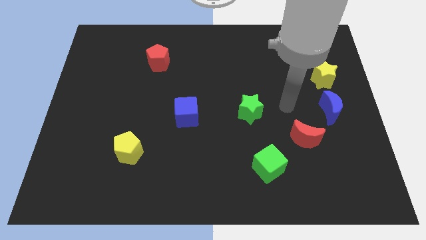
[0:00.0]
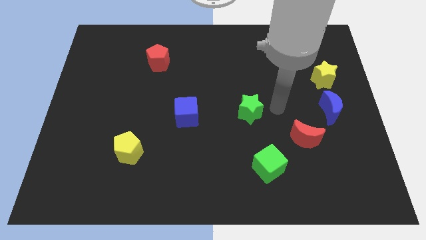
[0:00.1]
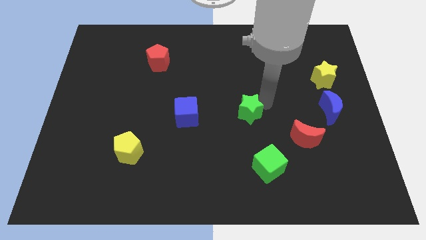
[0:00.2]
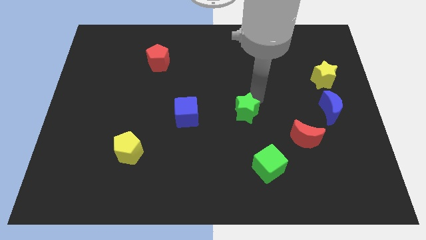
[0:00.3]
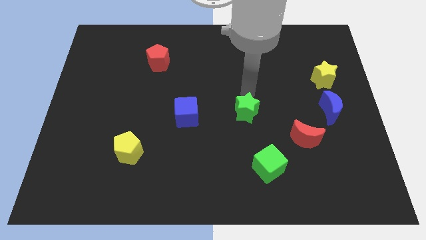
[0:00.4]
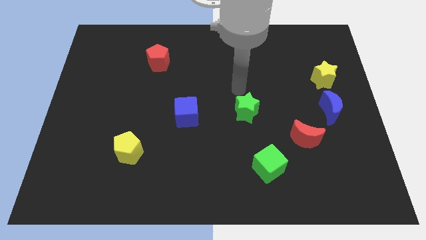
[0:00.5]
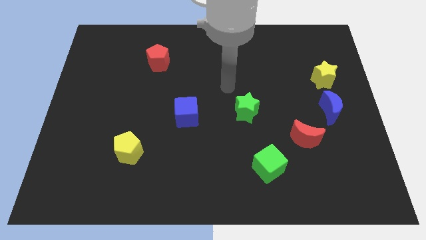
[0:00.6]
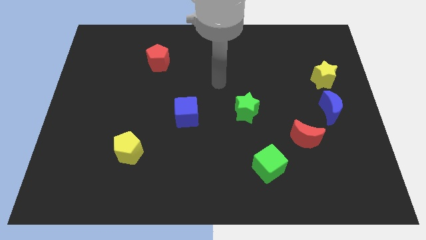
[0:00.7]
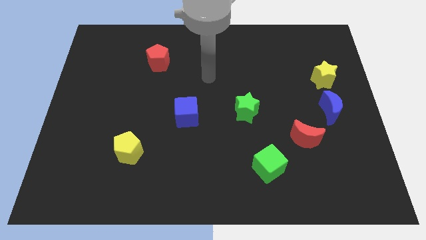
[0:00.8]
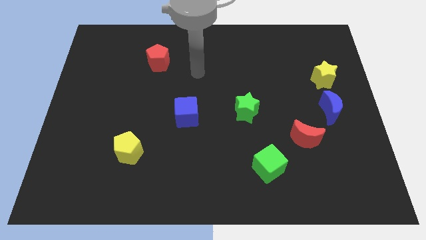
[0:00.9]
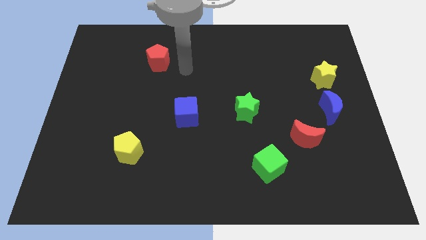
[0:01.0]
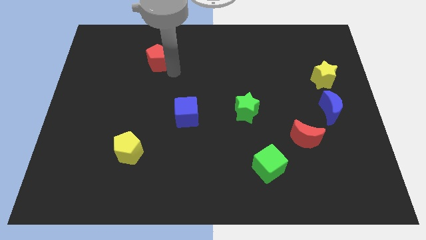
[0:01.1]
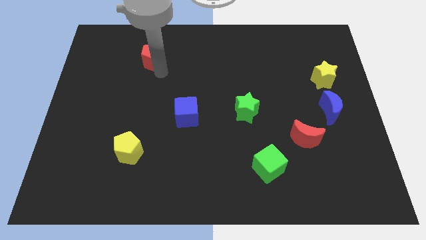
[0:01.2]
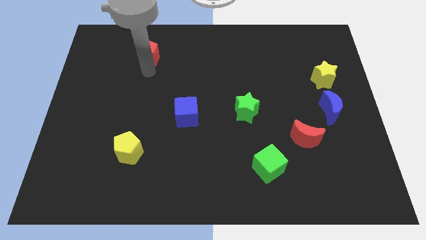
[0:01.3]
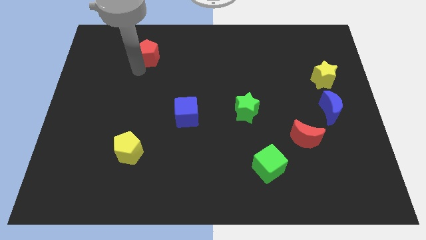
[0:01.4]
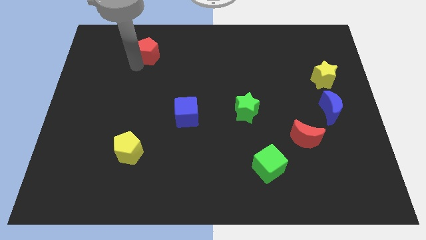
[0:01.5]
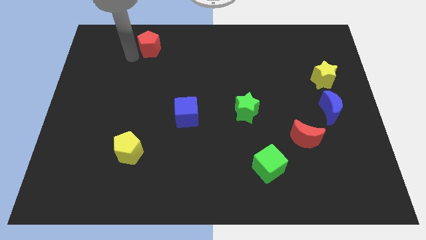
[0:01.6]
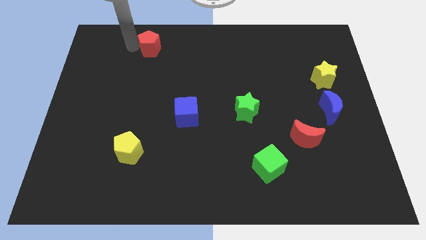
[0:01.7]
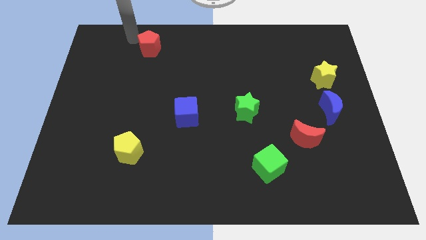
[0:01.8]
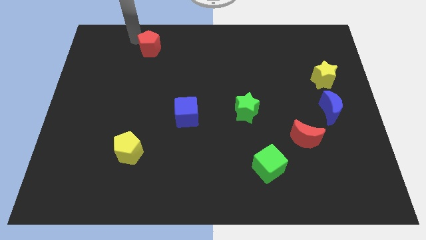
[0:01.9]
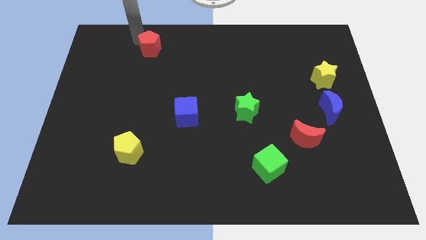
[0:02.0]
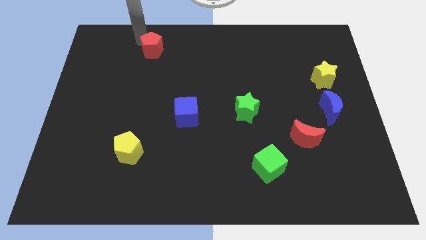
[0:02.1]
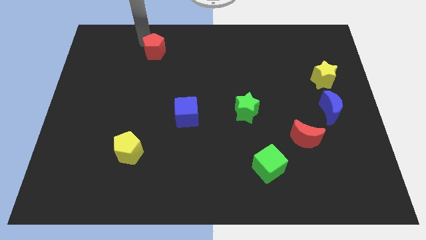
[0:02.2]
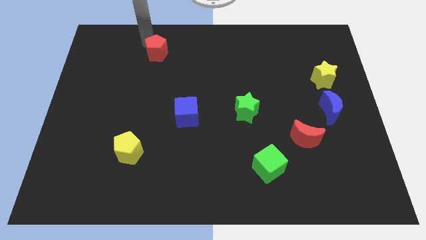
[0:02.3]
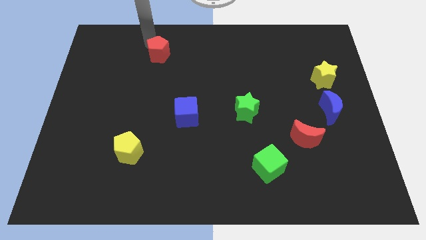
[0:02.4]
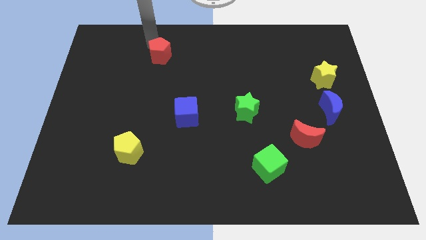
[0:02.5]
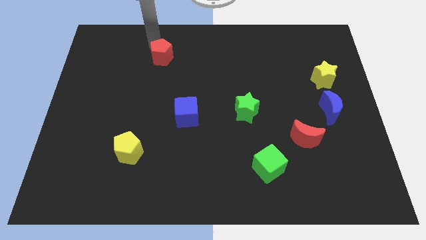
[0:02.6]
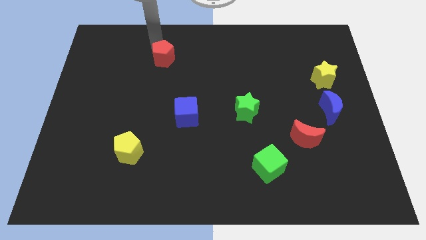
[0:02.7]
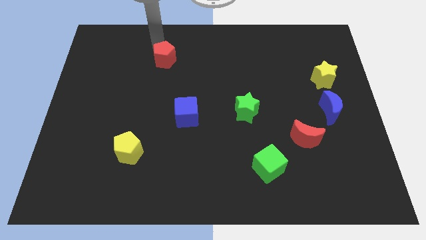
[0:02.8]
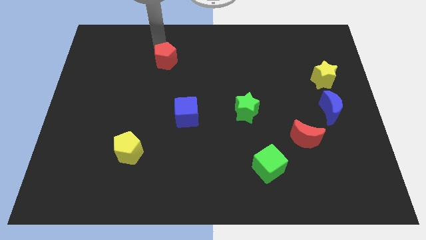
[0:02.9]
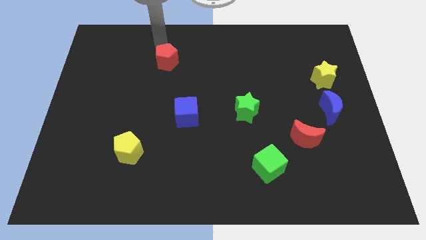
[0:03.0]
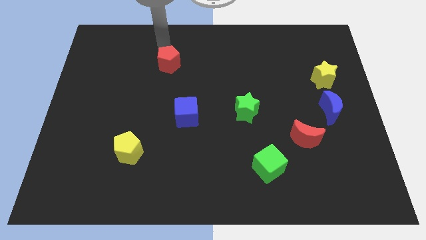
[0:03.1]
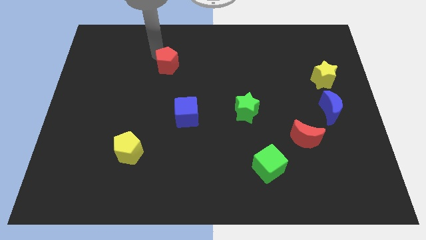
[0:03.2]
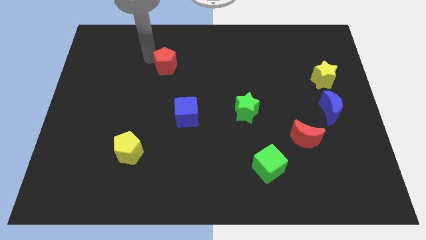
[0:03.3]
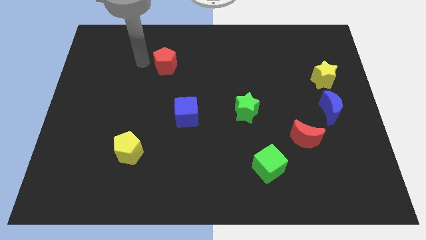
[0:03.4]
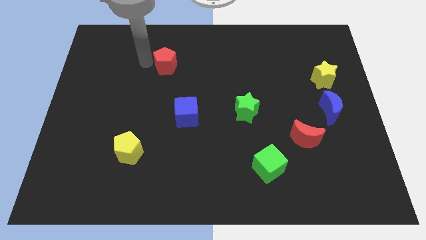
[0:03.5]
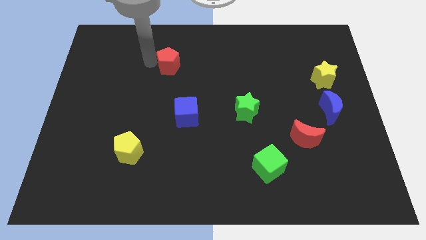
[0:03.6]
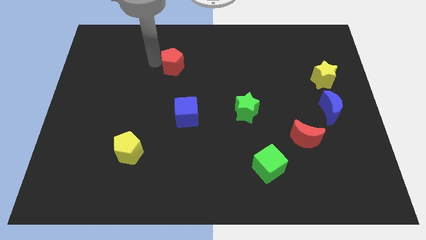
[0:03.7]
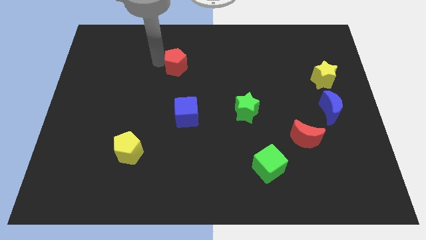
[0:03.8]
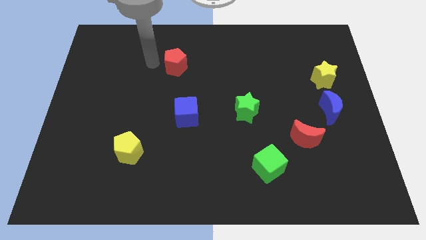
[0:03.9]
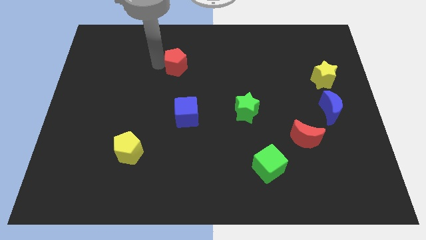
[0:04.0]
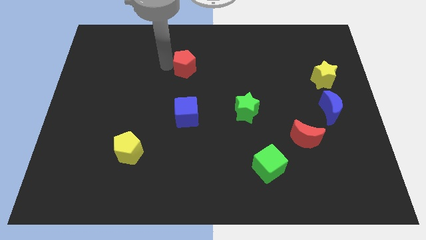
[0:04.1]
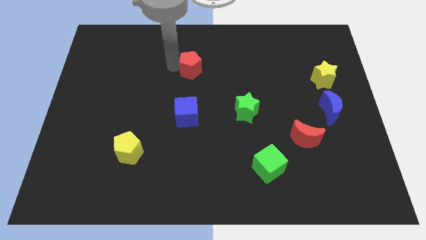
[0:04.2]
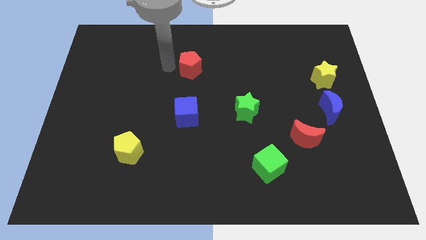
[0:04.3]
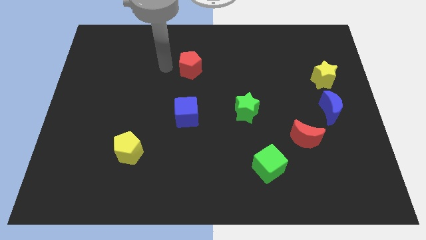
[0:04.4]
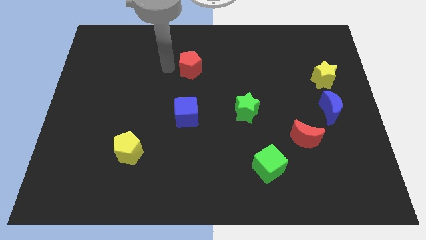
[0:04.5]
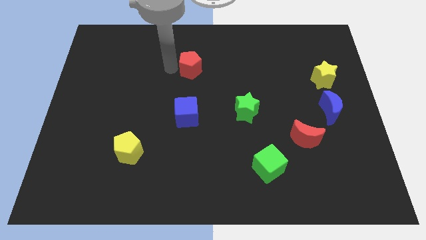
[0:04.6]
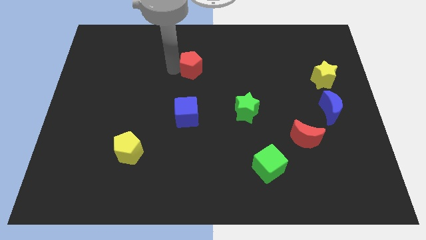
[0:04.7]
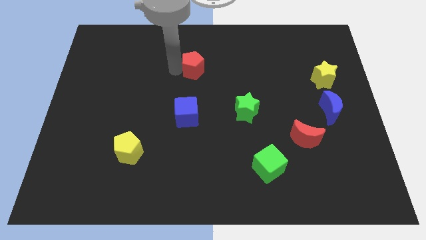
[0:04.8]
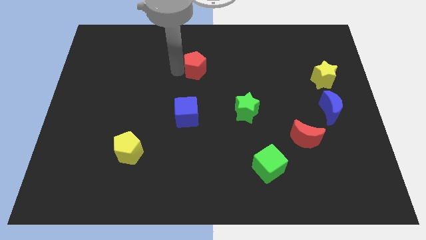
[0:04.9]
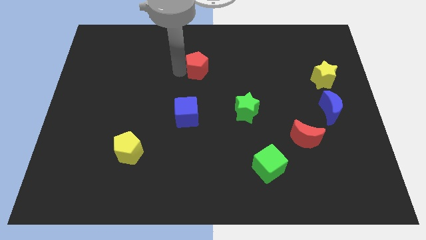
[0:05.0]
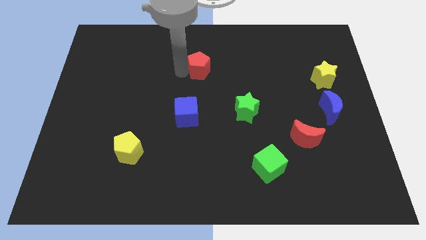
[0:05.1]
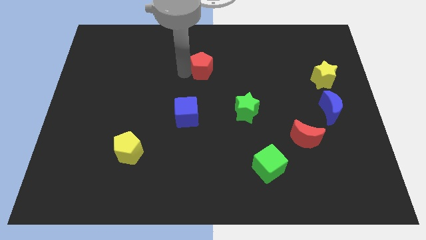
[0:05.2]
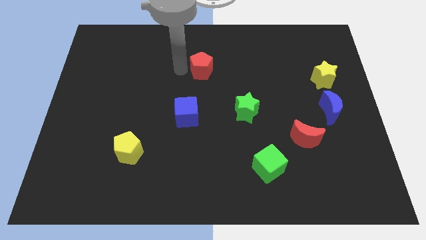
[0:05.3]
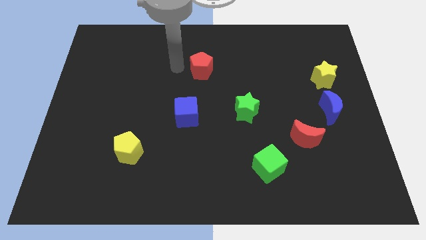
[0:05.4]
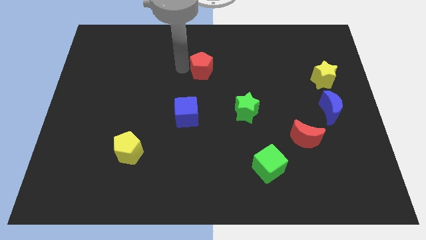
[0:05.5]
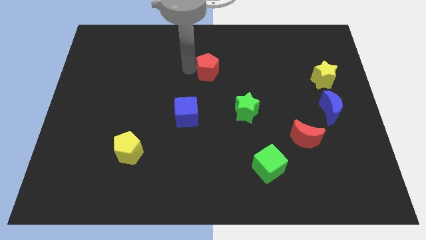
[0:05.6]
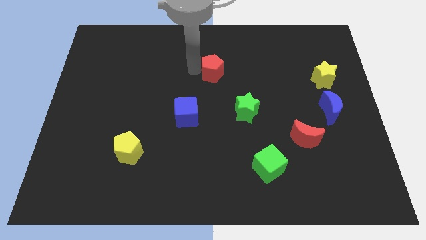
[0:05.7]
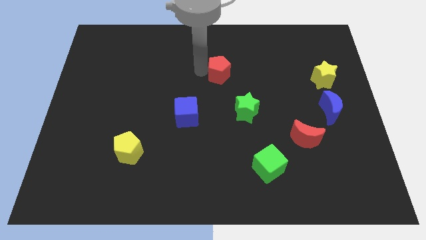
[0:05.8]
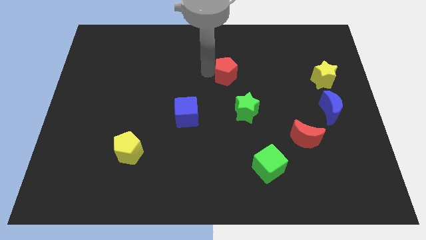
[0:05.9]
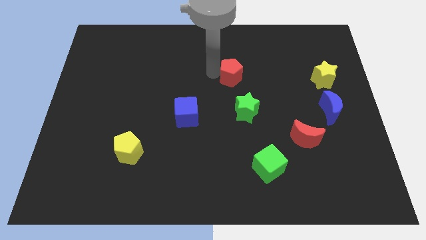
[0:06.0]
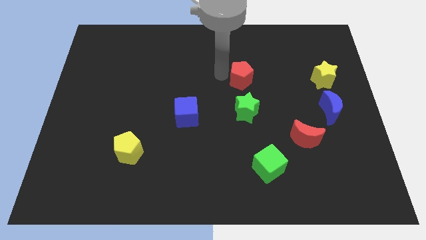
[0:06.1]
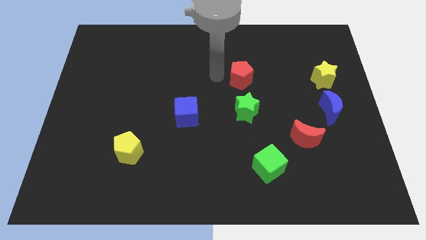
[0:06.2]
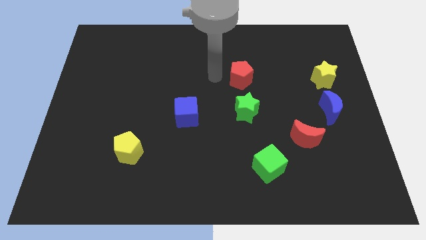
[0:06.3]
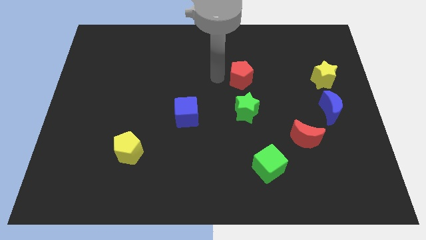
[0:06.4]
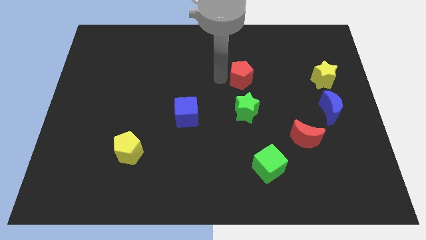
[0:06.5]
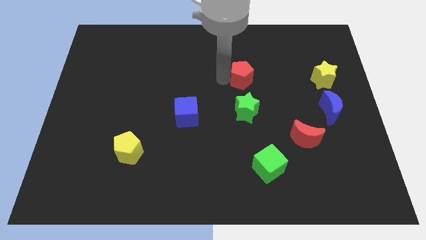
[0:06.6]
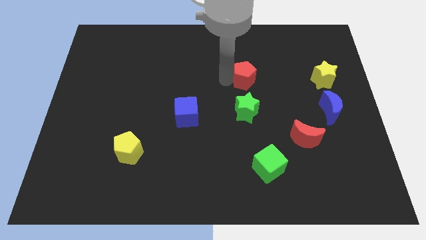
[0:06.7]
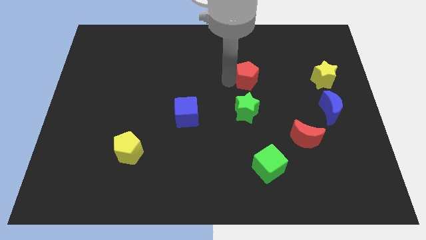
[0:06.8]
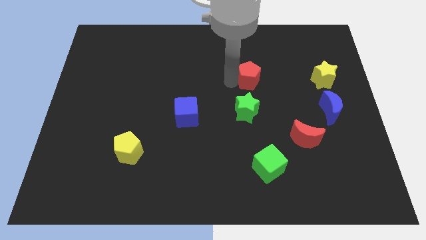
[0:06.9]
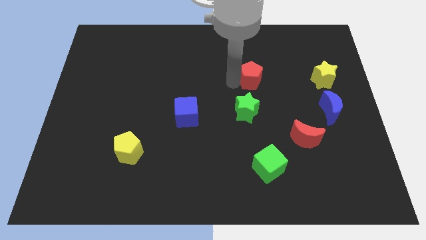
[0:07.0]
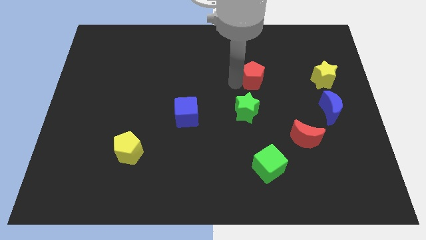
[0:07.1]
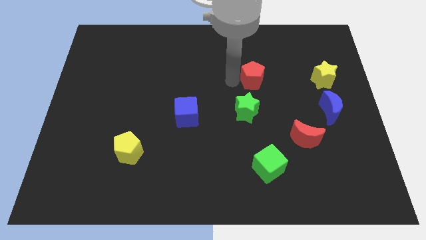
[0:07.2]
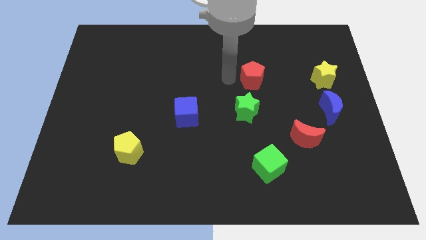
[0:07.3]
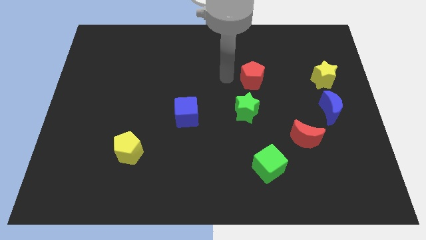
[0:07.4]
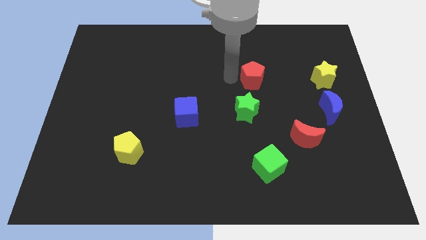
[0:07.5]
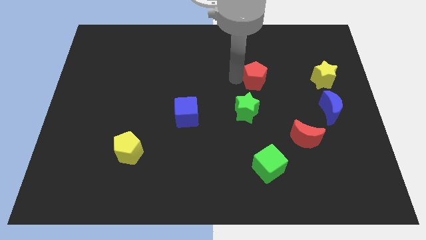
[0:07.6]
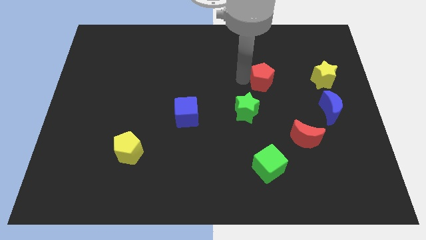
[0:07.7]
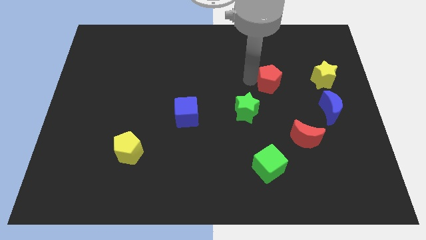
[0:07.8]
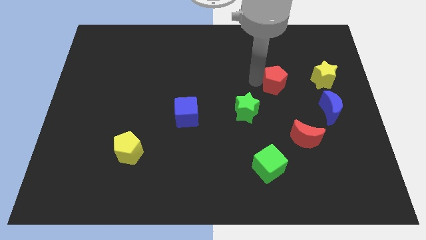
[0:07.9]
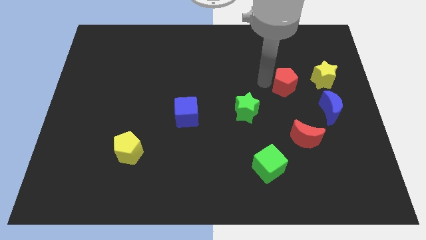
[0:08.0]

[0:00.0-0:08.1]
put the red pentagon to the top left side of the blue moon
